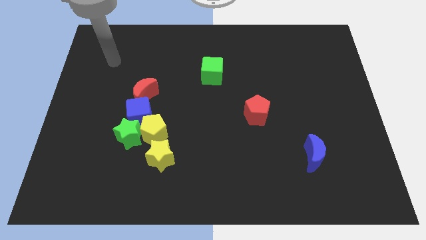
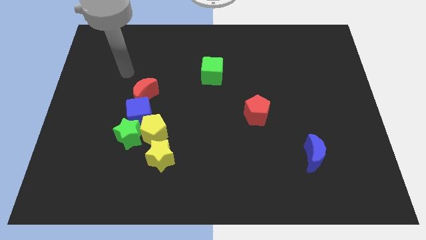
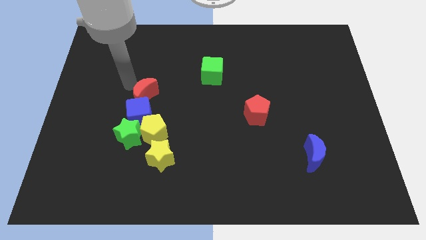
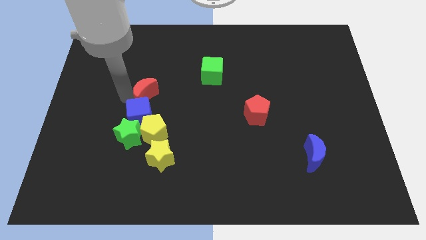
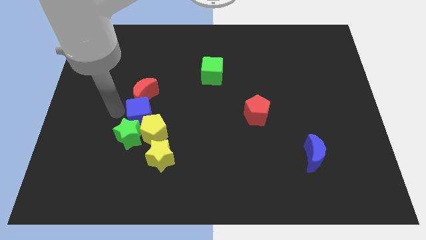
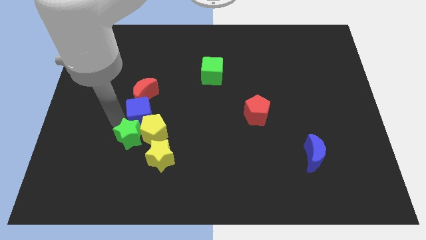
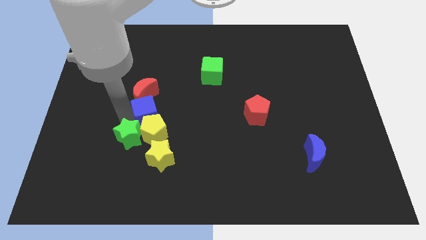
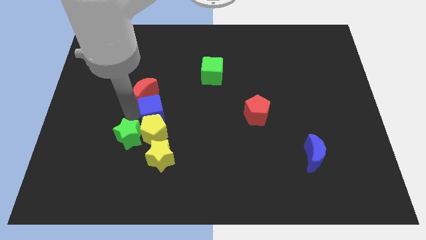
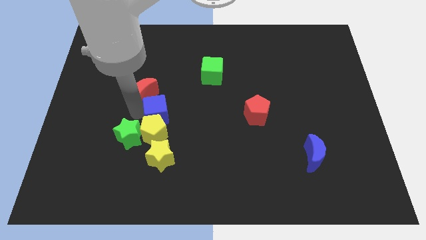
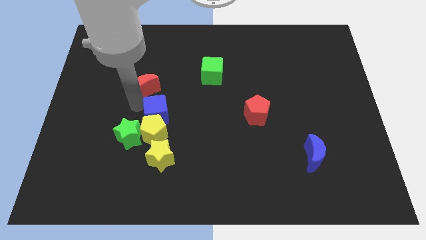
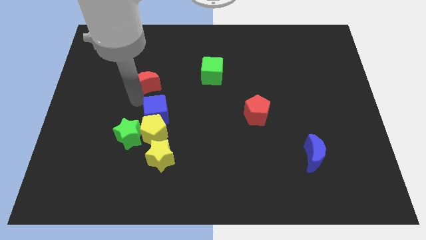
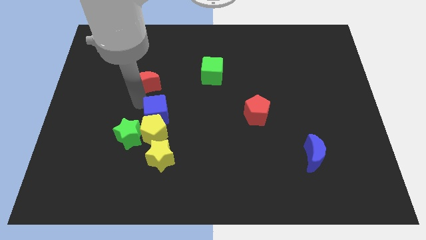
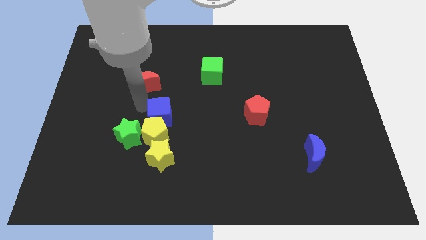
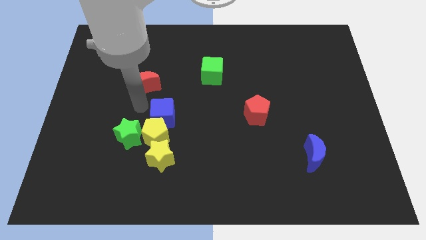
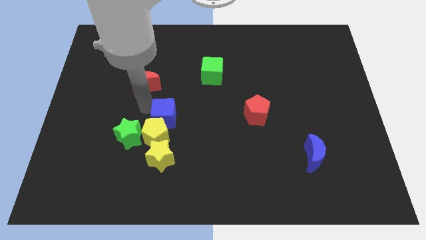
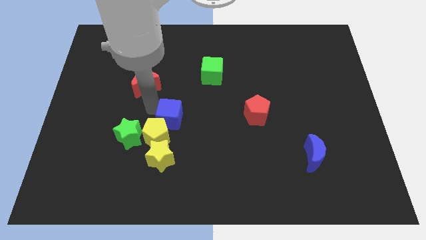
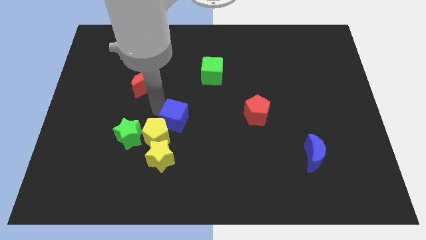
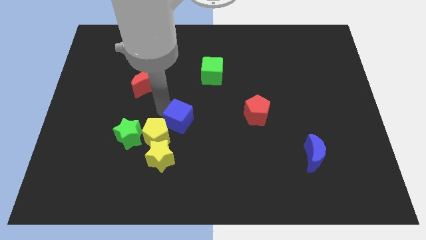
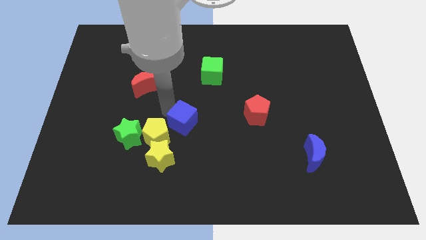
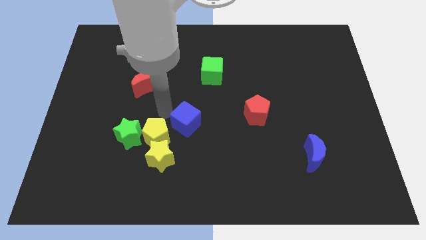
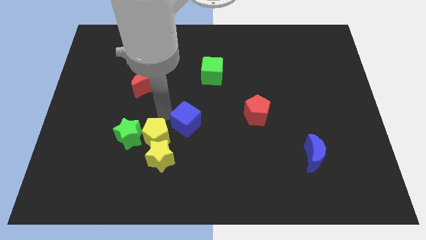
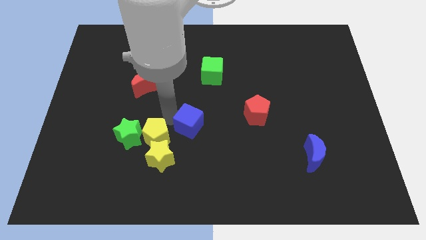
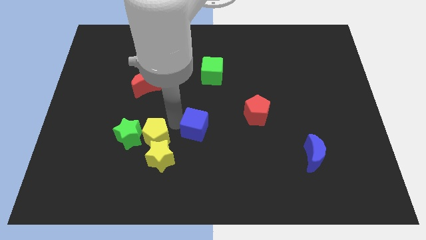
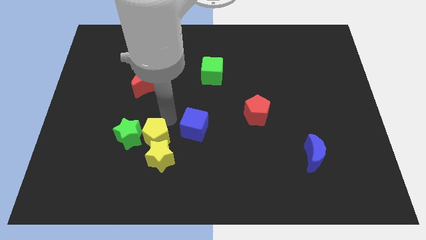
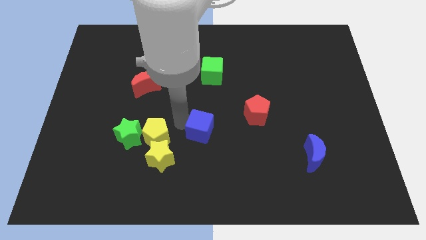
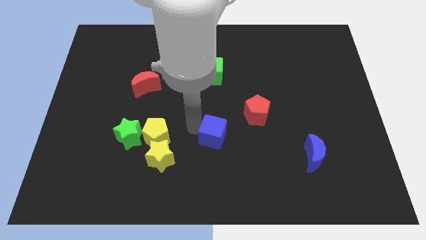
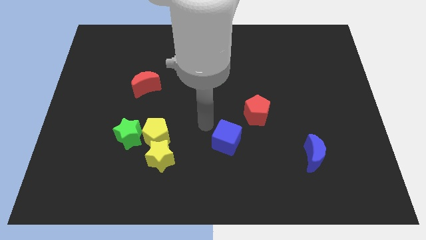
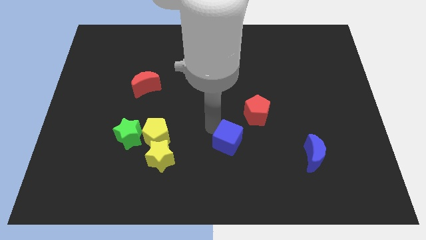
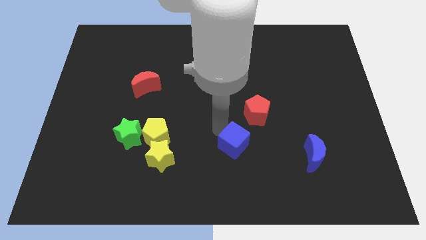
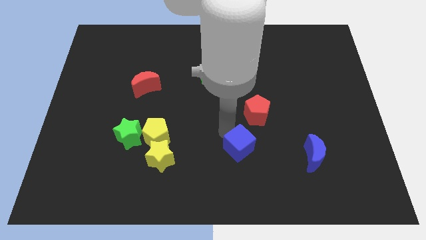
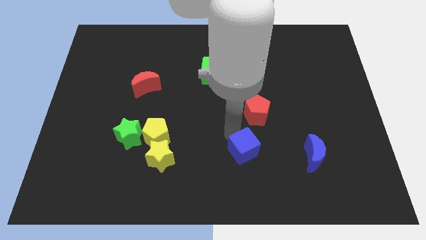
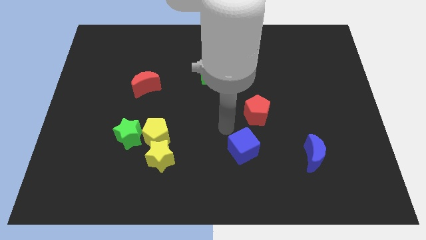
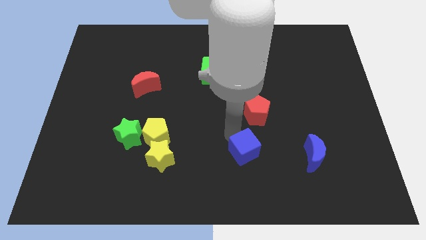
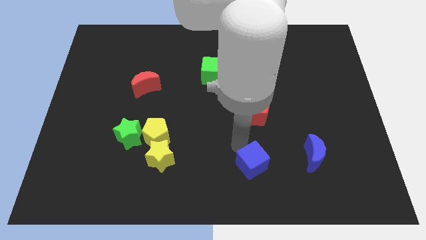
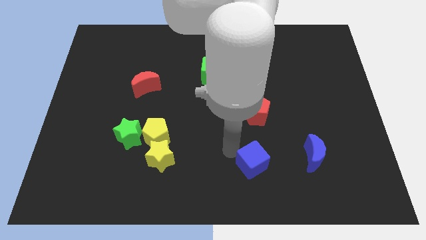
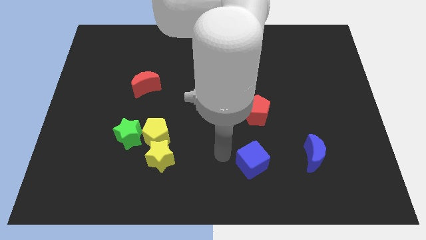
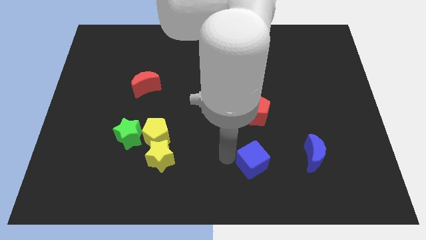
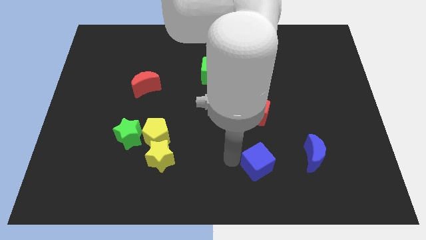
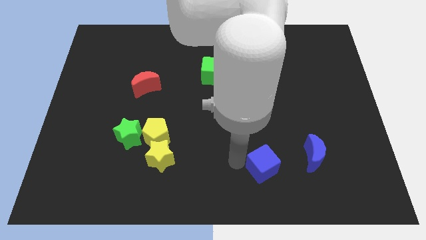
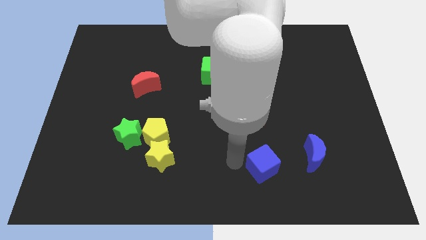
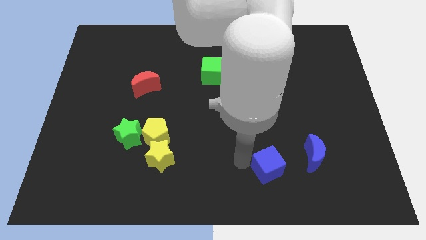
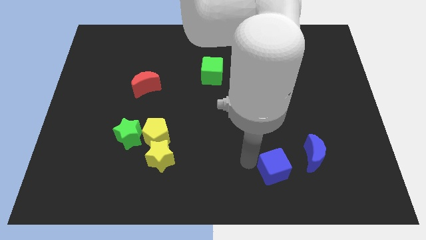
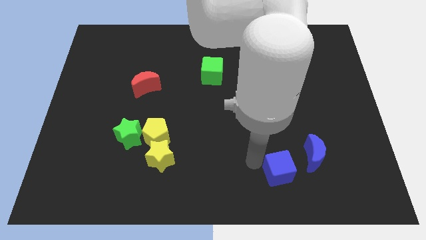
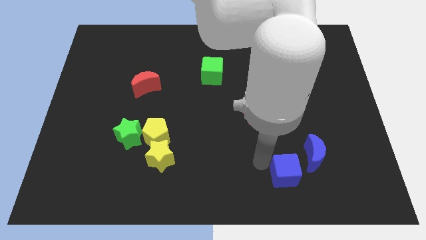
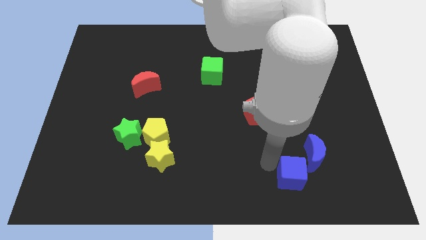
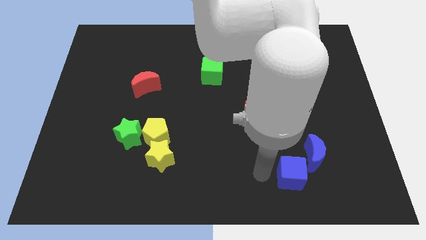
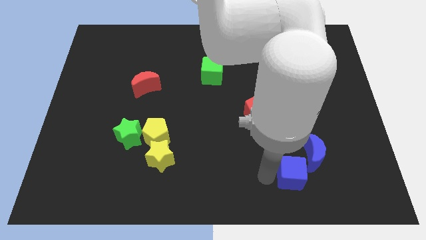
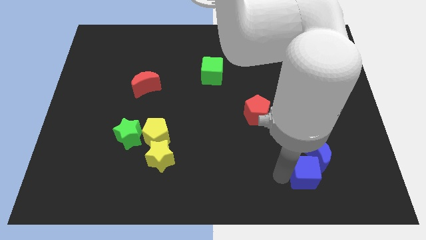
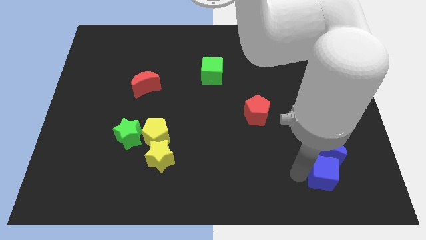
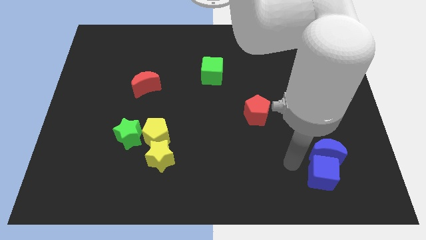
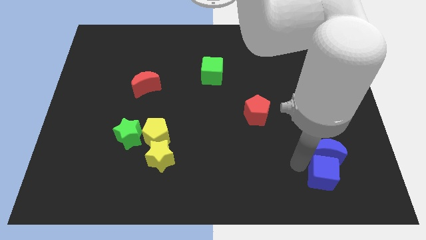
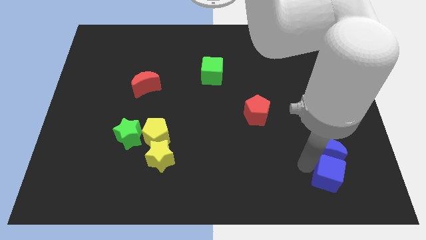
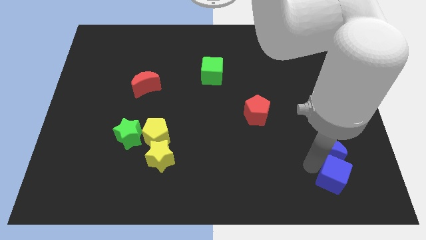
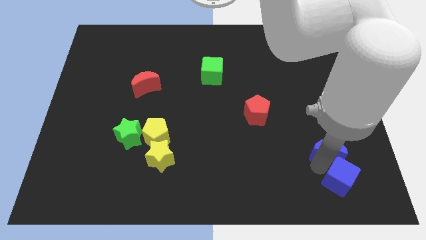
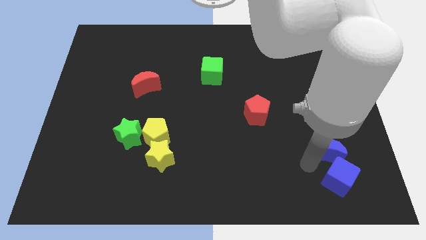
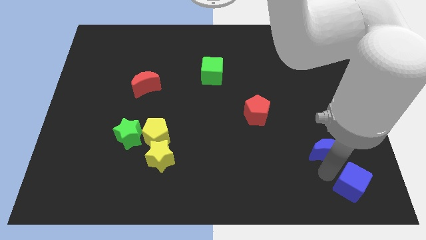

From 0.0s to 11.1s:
slide the blue cube to the bottom right of the board
